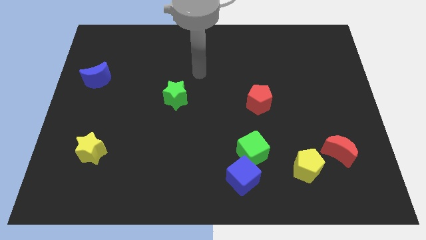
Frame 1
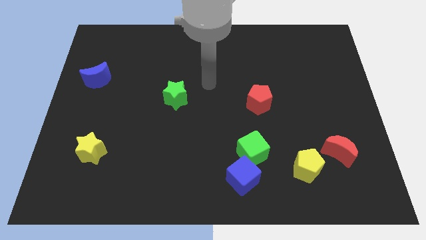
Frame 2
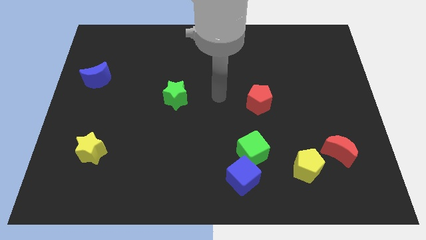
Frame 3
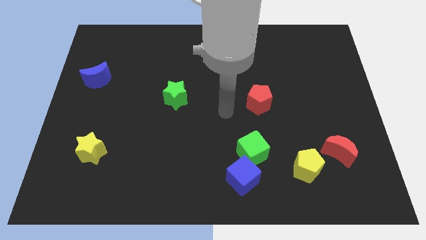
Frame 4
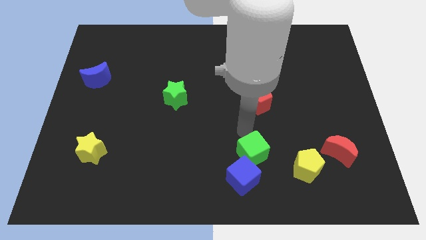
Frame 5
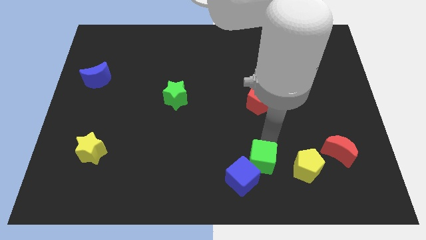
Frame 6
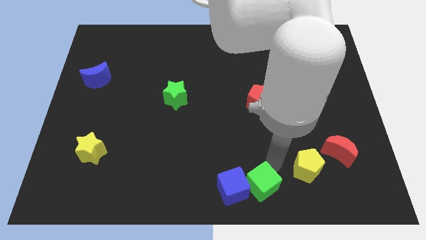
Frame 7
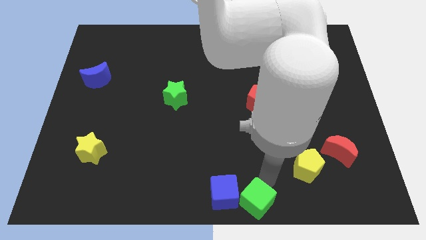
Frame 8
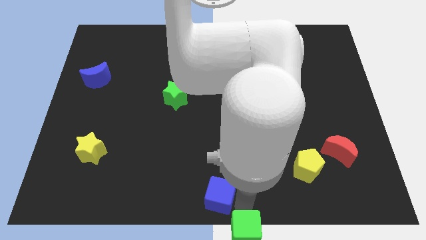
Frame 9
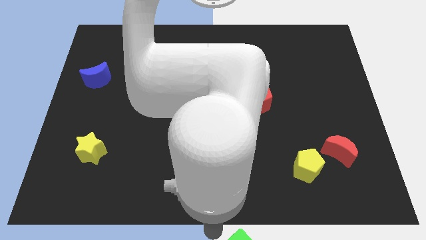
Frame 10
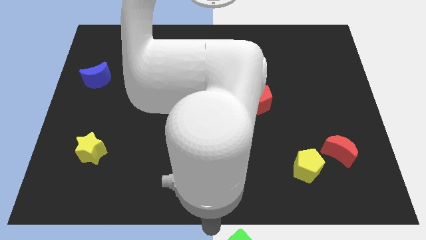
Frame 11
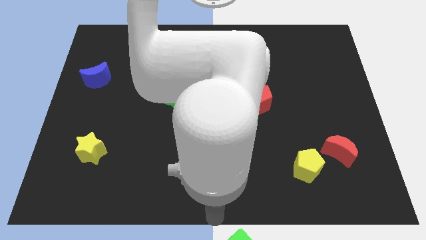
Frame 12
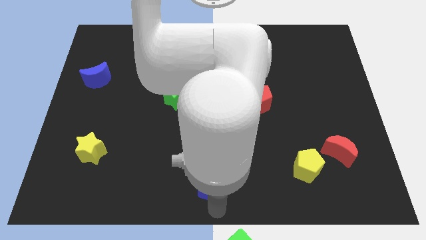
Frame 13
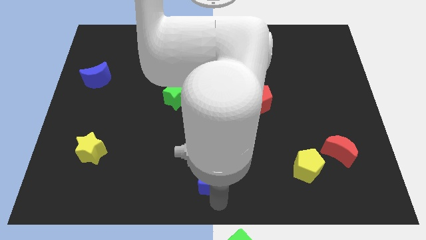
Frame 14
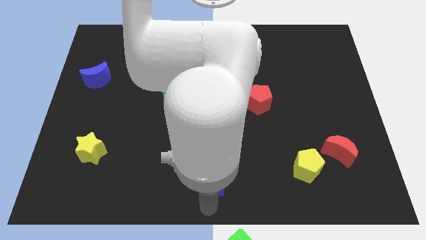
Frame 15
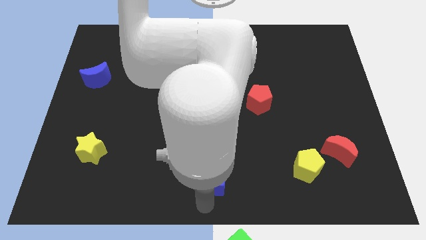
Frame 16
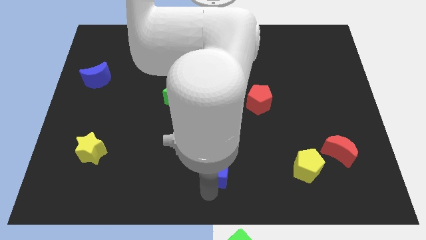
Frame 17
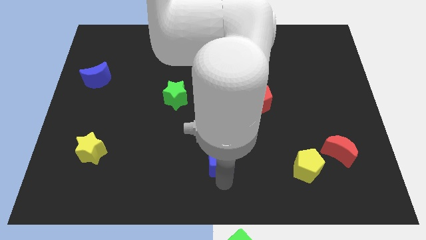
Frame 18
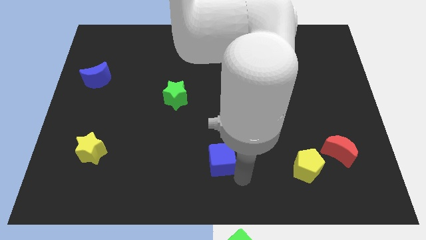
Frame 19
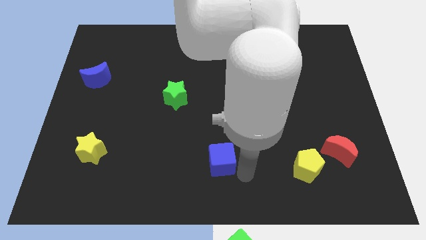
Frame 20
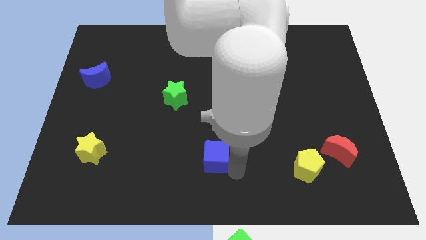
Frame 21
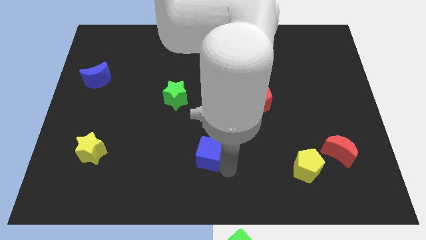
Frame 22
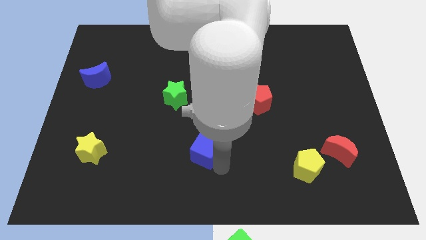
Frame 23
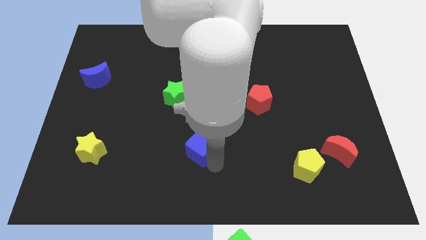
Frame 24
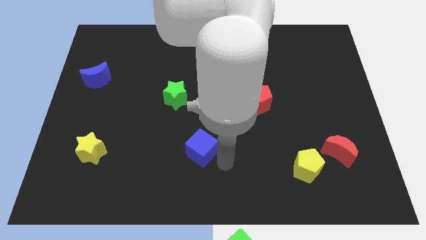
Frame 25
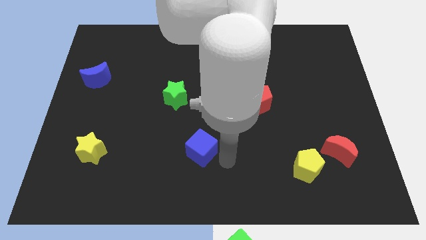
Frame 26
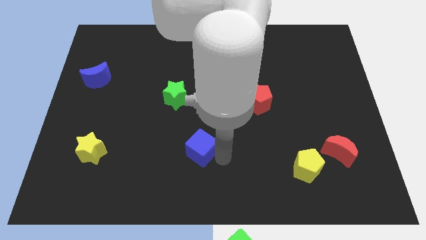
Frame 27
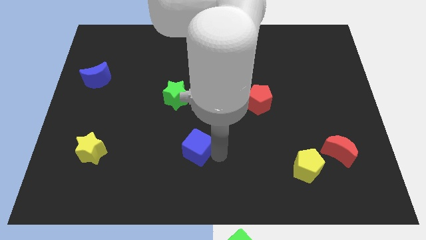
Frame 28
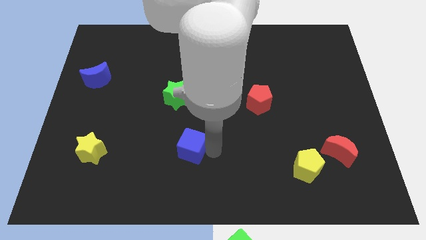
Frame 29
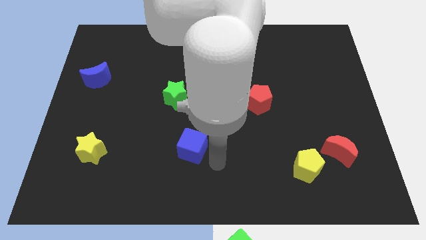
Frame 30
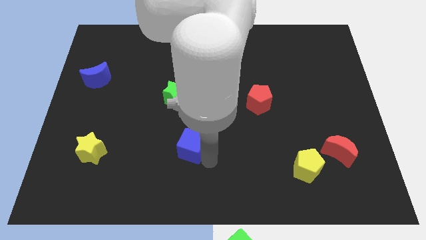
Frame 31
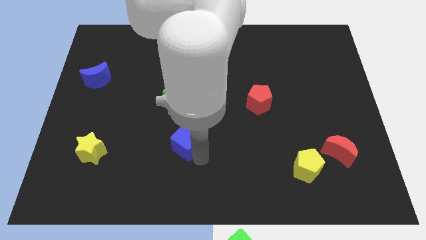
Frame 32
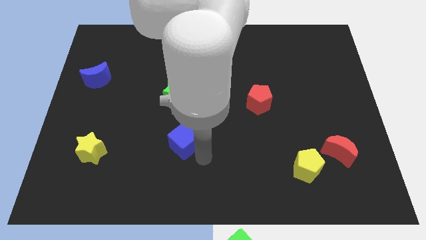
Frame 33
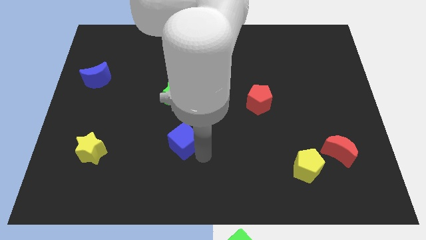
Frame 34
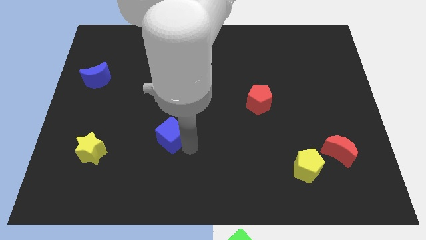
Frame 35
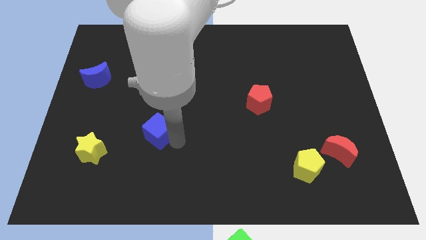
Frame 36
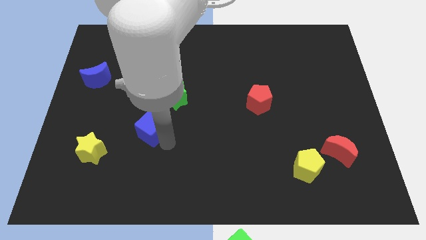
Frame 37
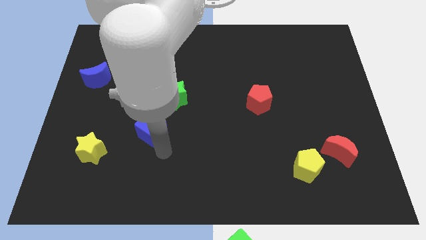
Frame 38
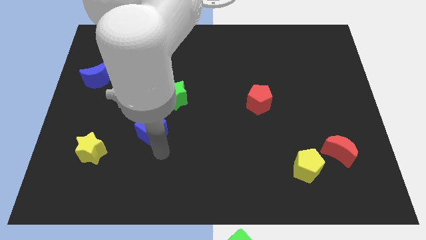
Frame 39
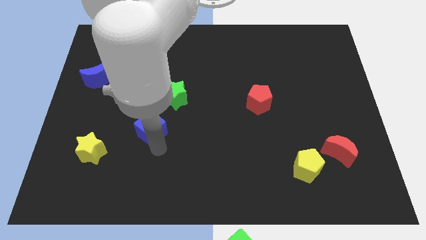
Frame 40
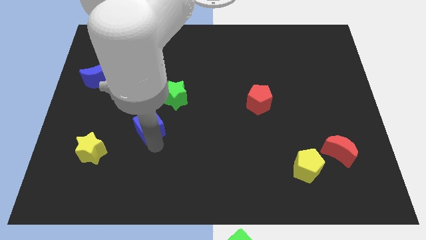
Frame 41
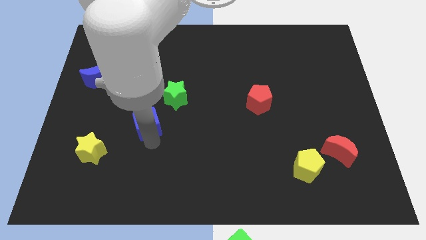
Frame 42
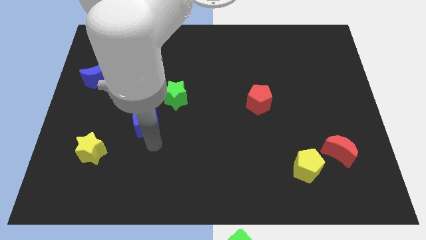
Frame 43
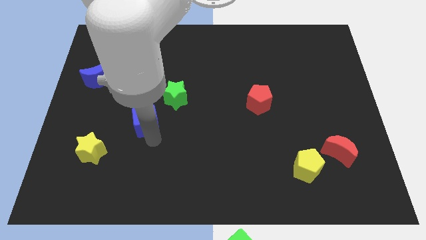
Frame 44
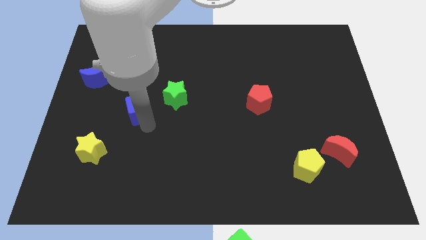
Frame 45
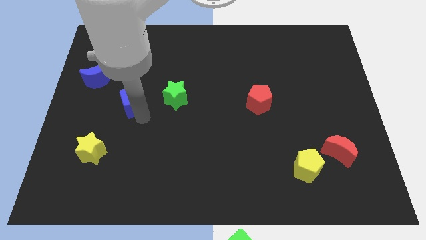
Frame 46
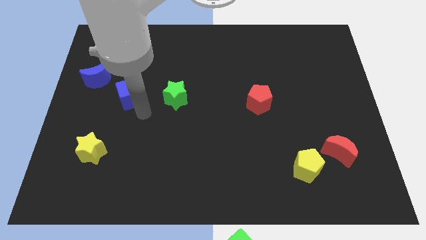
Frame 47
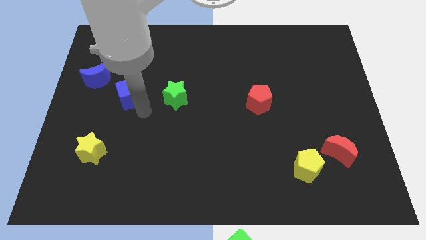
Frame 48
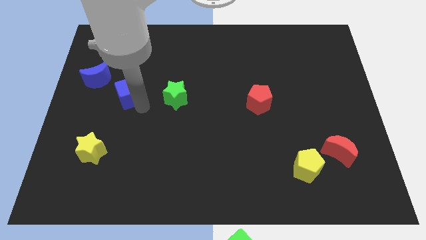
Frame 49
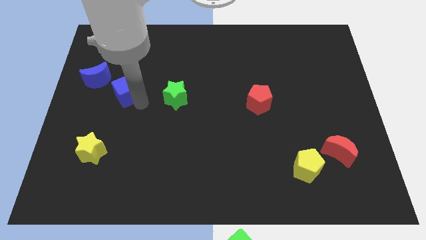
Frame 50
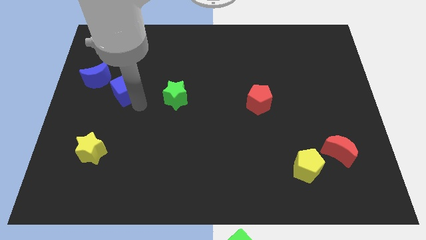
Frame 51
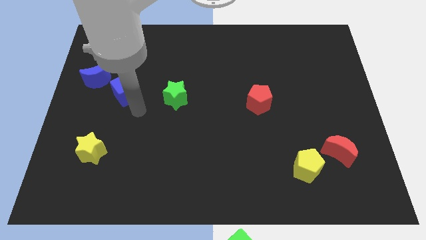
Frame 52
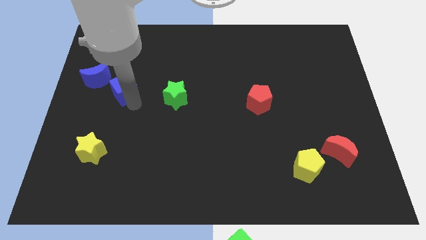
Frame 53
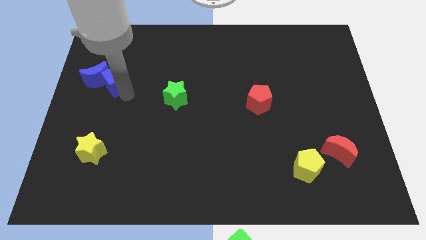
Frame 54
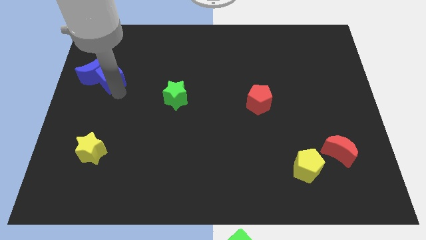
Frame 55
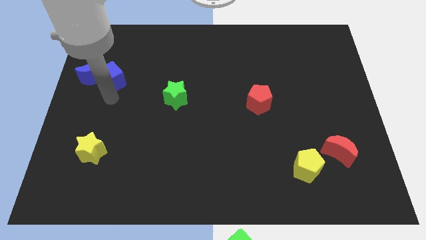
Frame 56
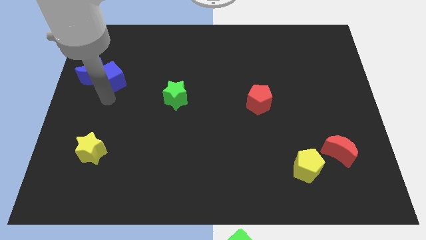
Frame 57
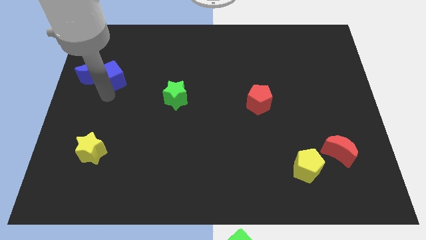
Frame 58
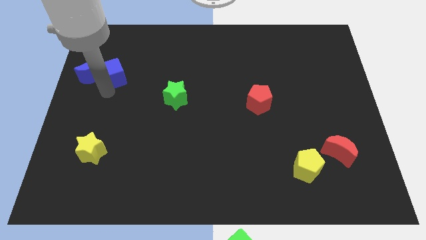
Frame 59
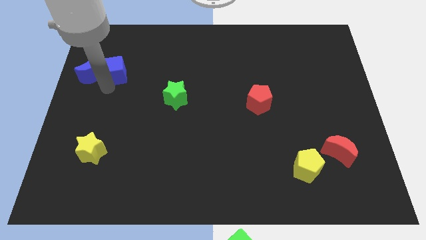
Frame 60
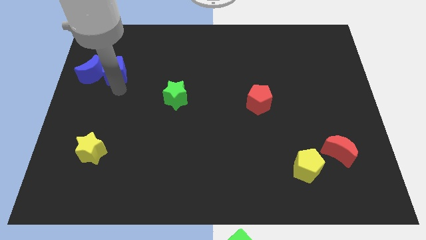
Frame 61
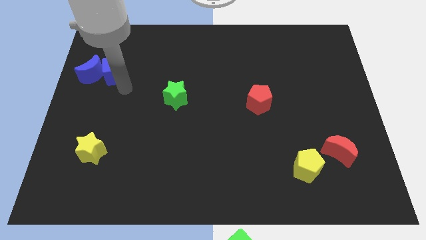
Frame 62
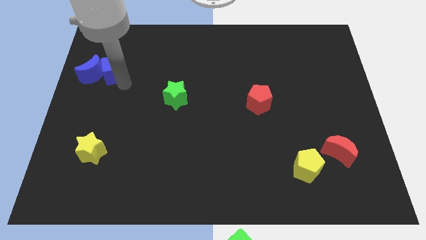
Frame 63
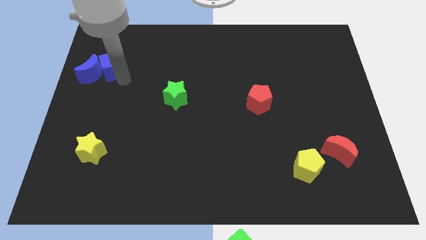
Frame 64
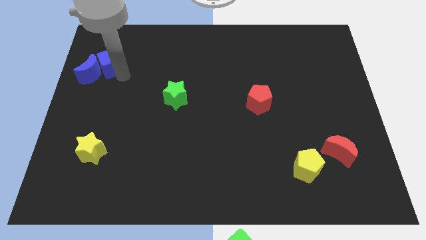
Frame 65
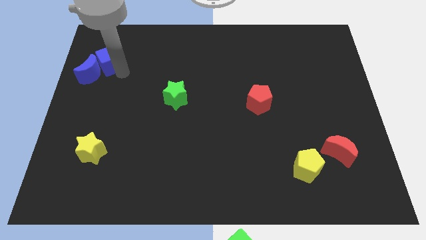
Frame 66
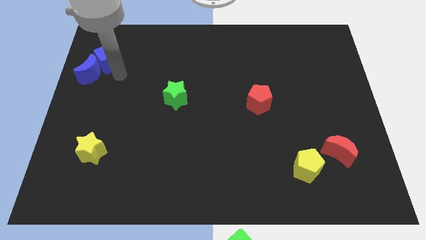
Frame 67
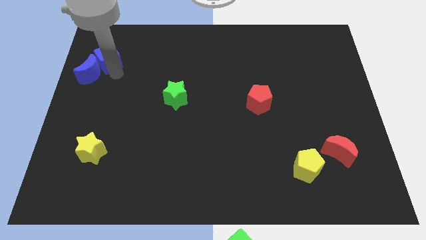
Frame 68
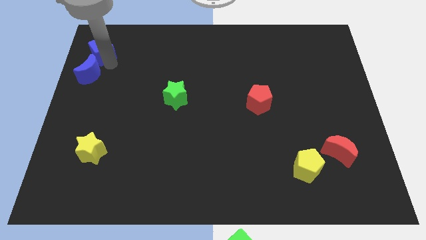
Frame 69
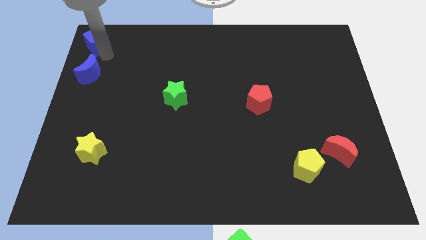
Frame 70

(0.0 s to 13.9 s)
slide the blue cube to the top left
